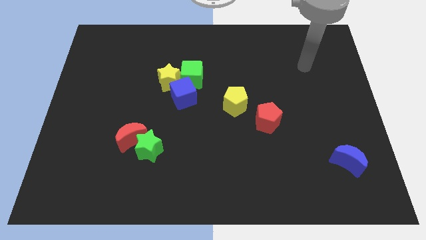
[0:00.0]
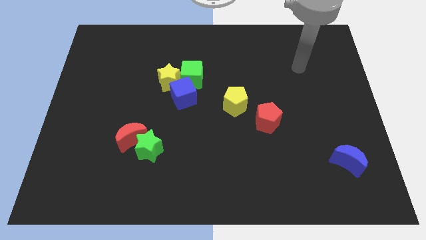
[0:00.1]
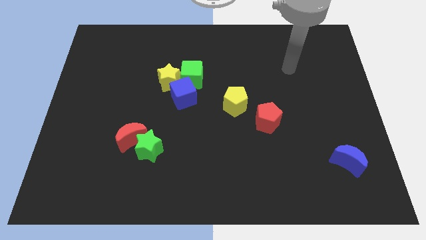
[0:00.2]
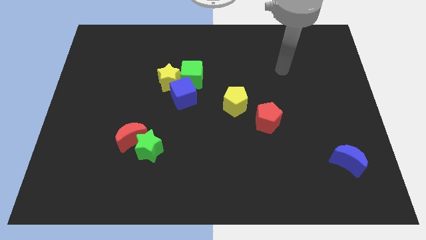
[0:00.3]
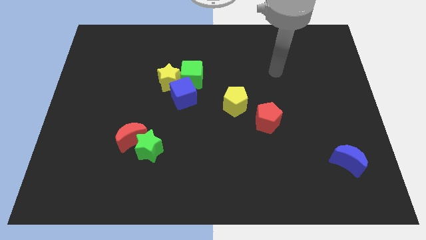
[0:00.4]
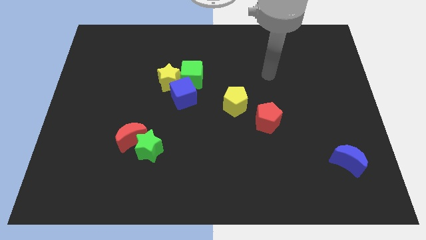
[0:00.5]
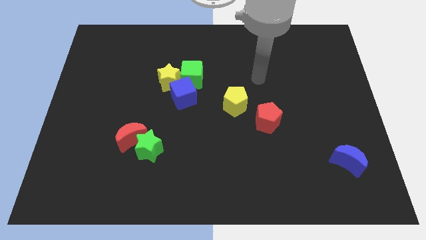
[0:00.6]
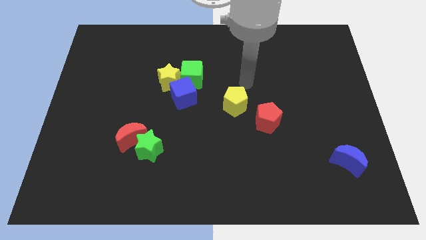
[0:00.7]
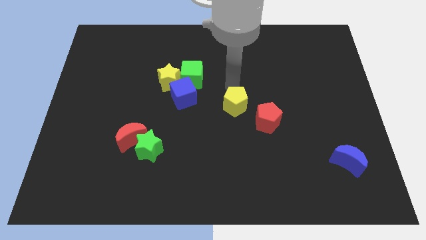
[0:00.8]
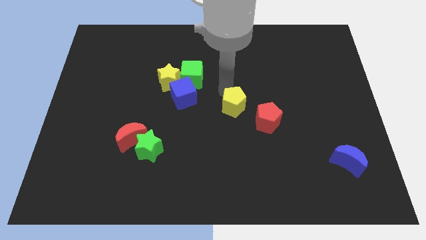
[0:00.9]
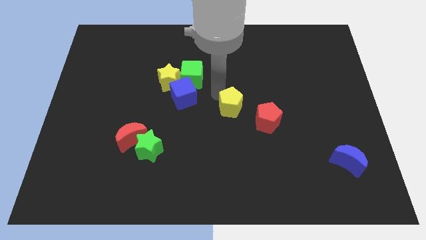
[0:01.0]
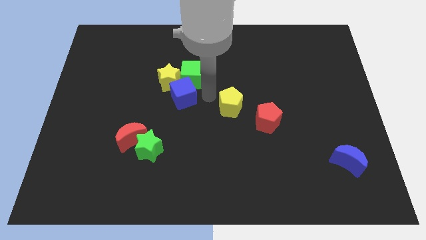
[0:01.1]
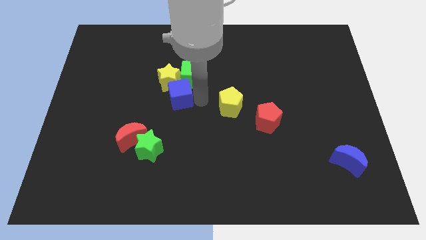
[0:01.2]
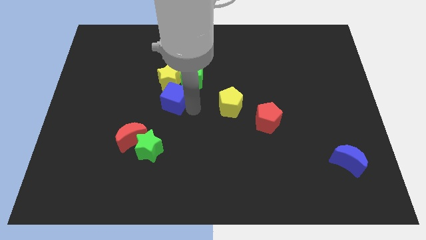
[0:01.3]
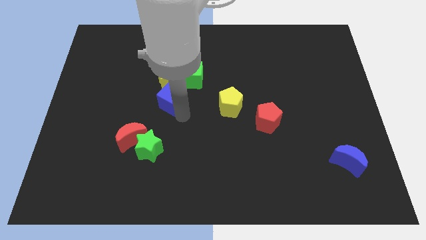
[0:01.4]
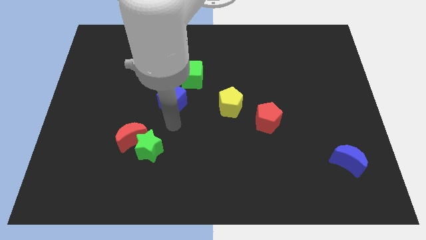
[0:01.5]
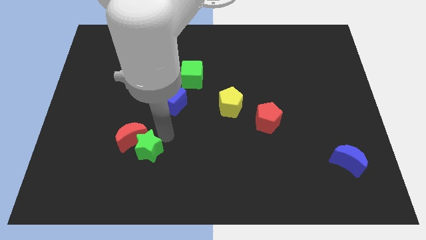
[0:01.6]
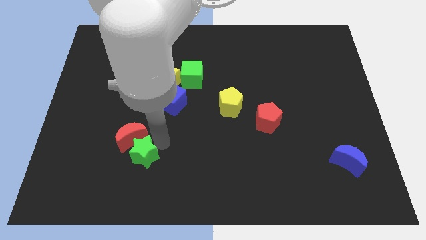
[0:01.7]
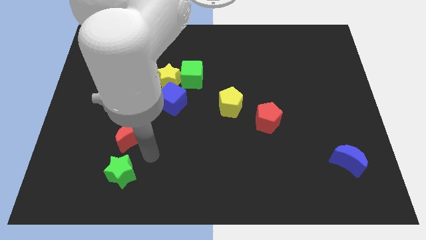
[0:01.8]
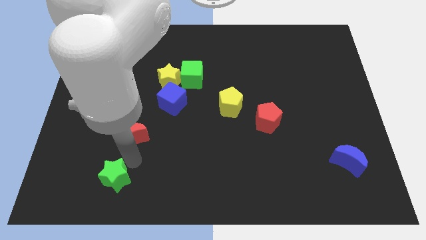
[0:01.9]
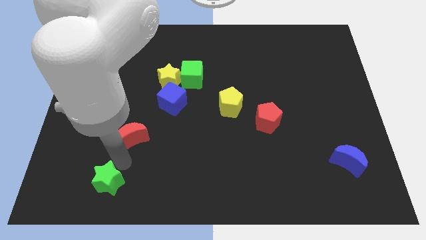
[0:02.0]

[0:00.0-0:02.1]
move the red moon away from the green star

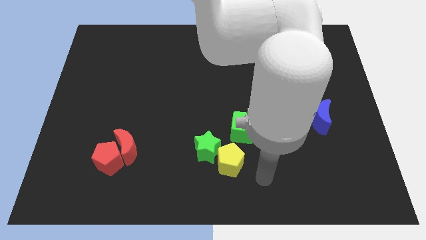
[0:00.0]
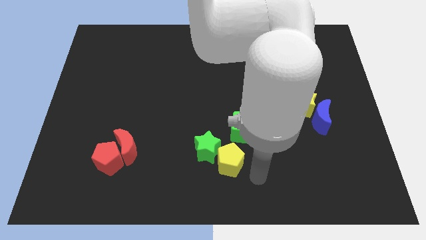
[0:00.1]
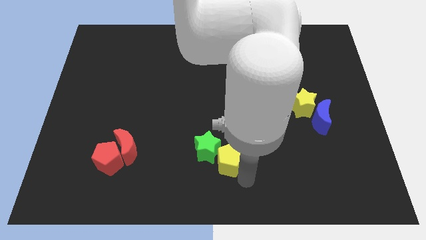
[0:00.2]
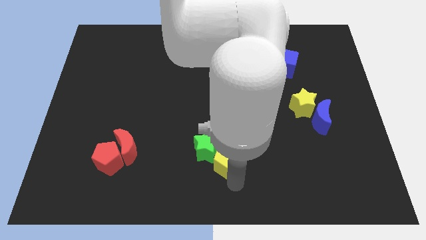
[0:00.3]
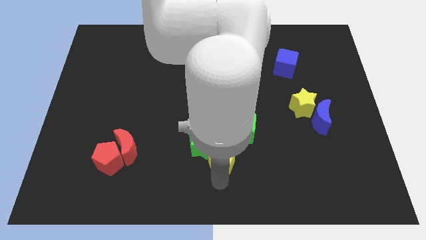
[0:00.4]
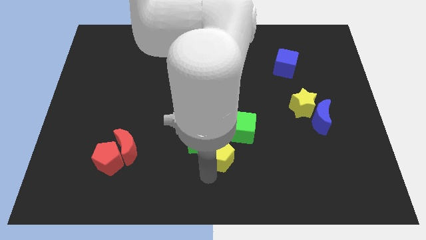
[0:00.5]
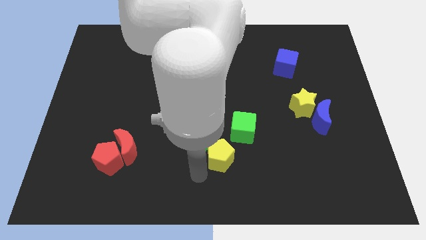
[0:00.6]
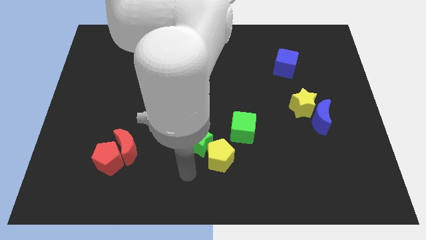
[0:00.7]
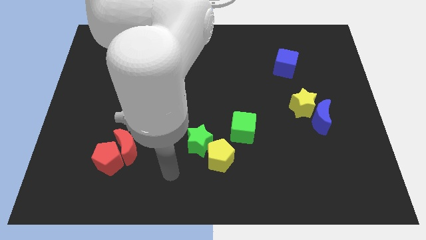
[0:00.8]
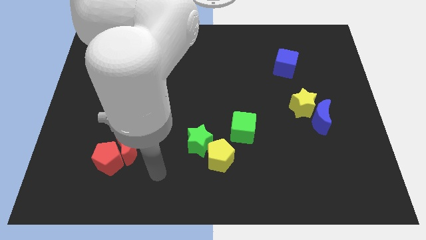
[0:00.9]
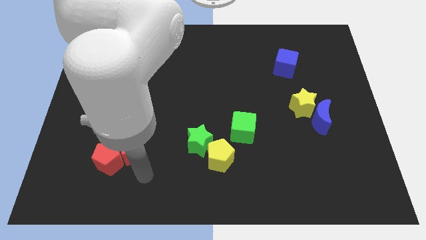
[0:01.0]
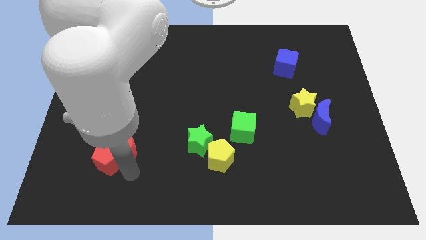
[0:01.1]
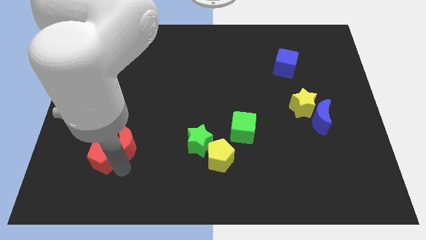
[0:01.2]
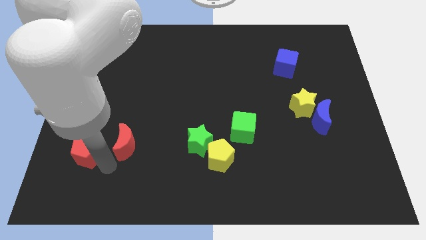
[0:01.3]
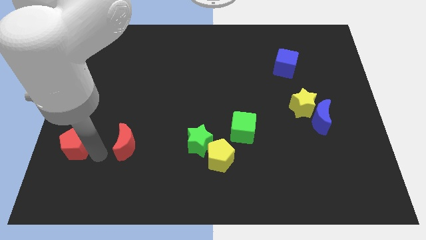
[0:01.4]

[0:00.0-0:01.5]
separate the red moon from the red pentagon

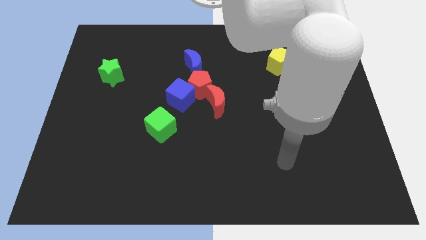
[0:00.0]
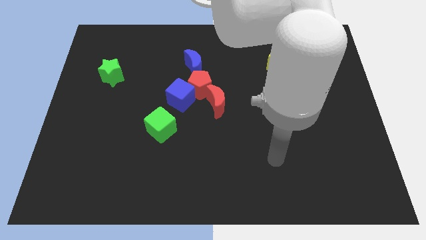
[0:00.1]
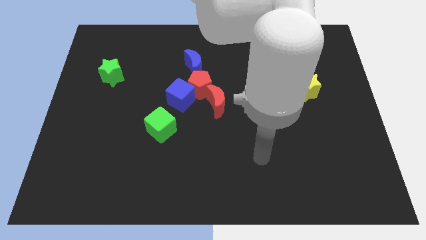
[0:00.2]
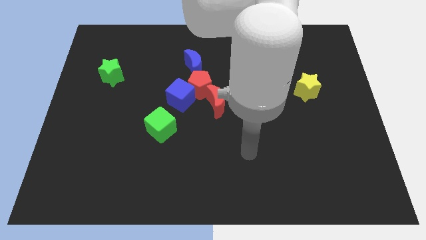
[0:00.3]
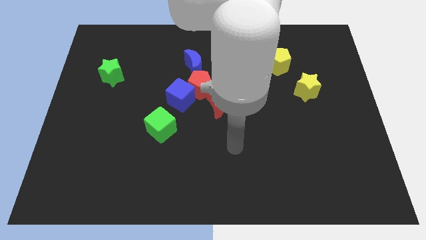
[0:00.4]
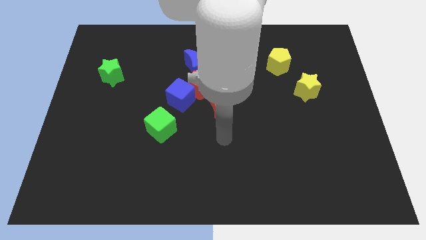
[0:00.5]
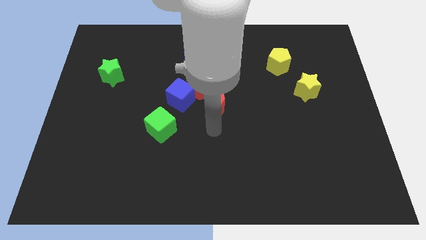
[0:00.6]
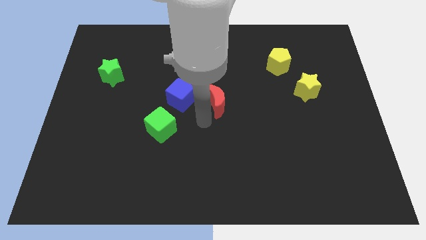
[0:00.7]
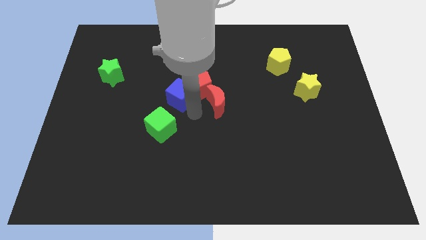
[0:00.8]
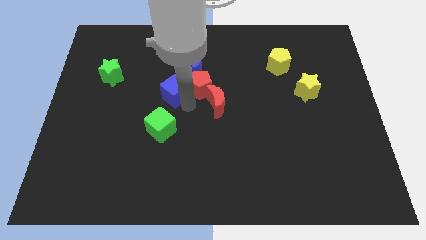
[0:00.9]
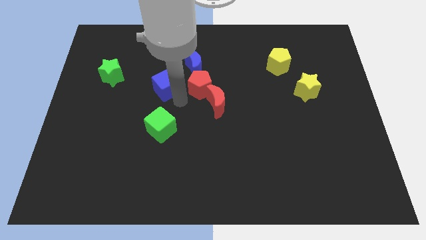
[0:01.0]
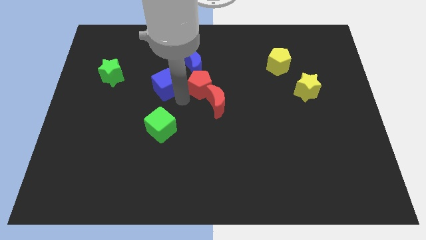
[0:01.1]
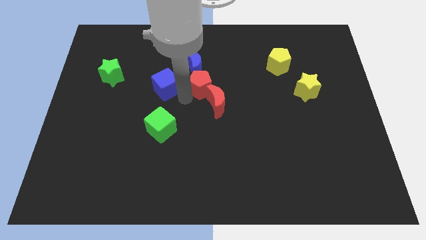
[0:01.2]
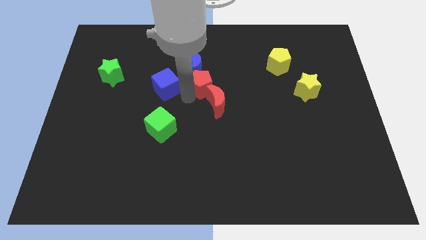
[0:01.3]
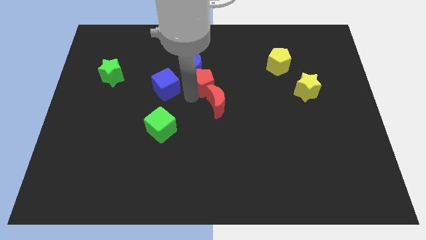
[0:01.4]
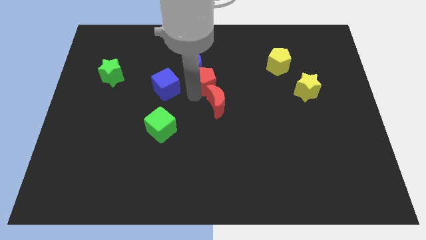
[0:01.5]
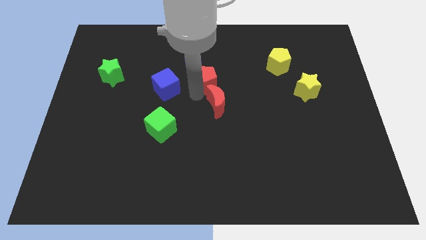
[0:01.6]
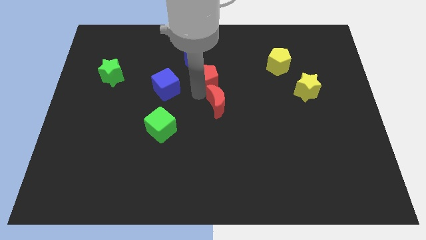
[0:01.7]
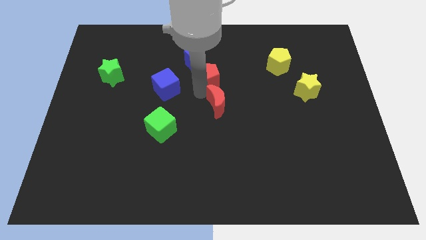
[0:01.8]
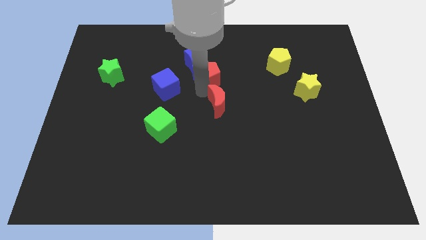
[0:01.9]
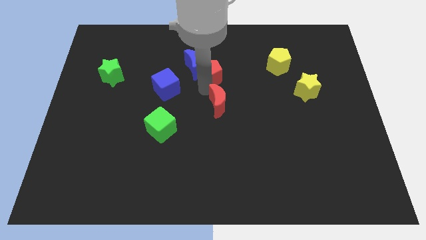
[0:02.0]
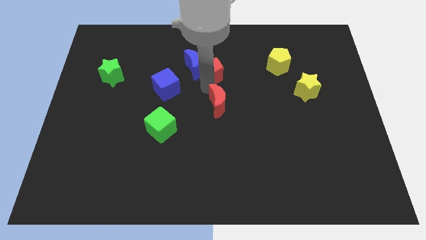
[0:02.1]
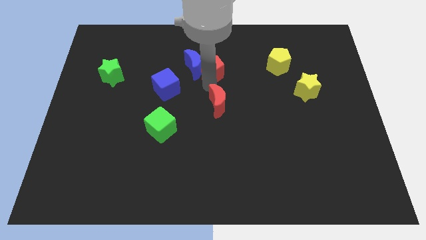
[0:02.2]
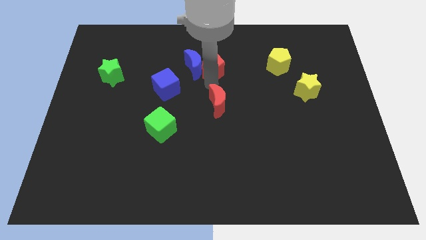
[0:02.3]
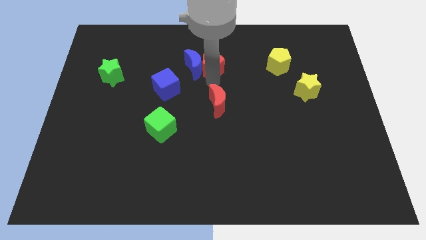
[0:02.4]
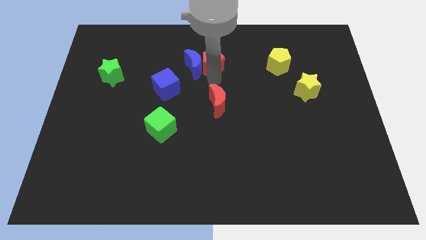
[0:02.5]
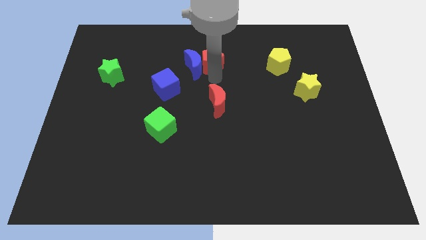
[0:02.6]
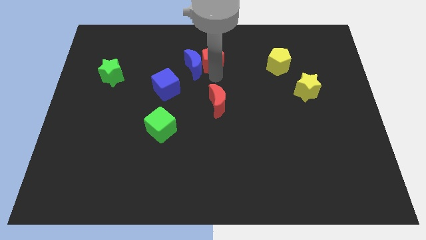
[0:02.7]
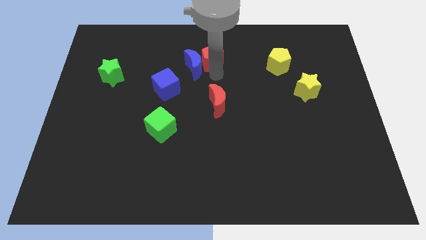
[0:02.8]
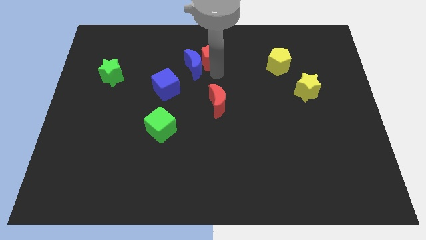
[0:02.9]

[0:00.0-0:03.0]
pull the red pentagon apart from the clump

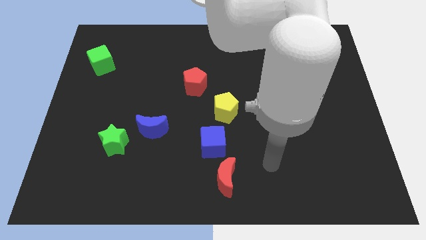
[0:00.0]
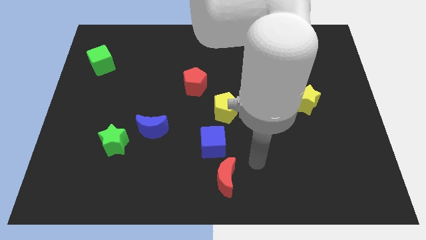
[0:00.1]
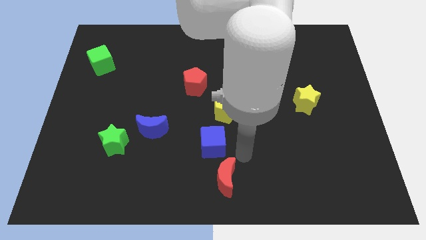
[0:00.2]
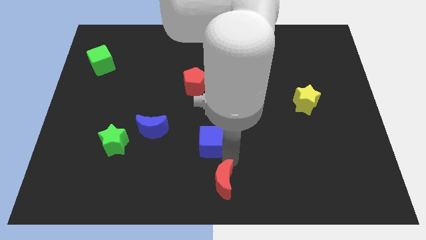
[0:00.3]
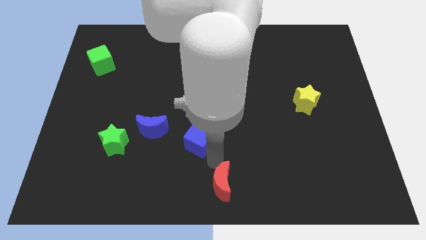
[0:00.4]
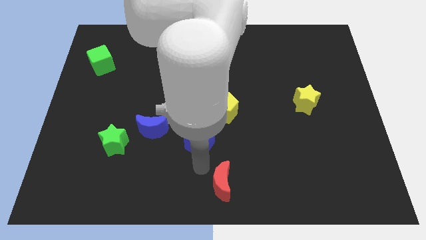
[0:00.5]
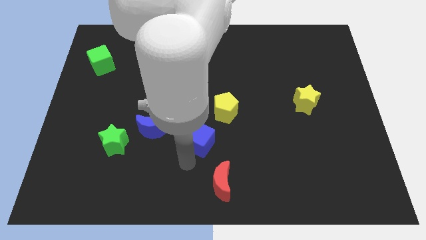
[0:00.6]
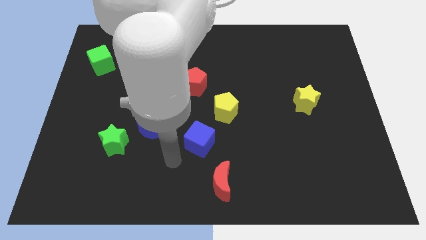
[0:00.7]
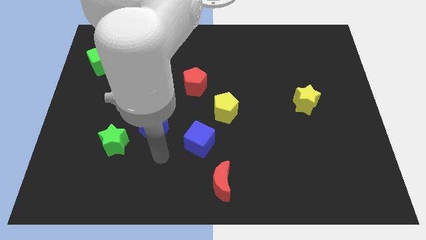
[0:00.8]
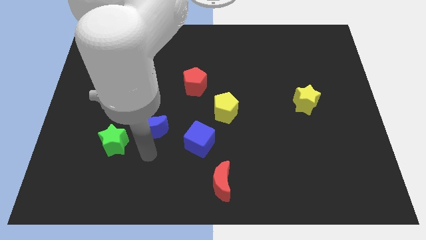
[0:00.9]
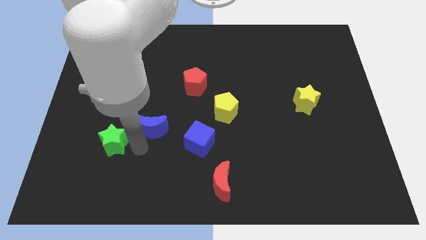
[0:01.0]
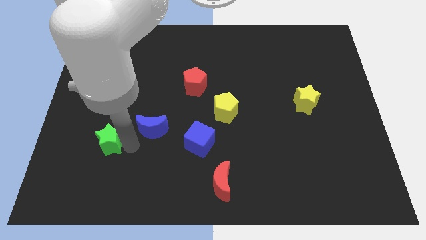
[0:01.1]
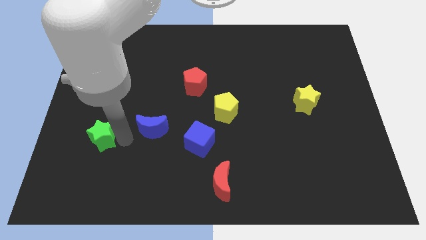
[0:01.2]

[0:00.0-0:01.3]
separate the blue moon from the green star

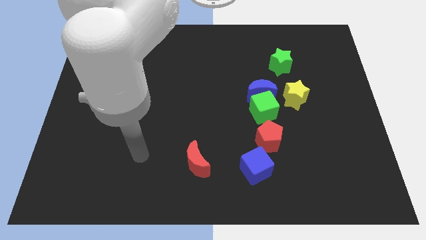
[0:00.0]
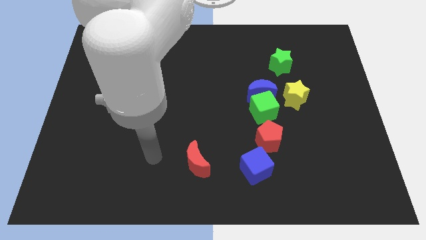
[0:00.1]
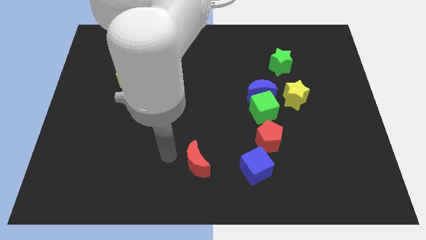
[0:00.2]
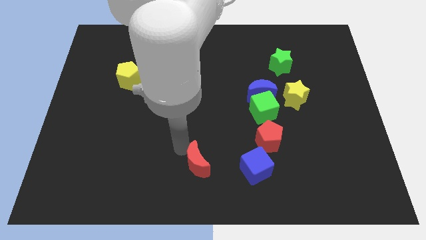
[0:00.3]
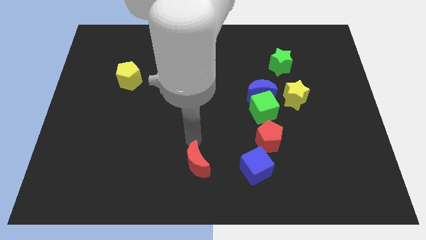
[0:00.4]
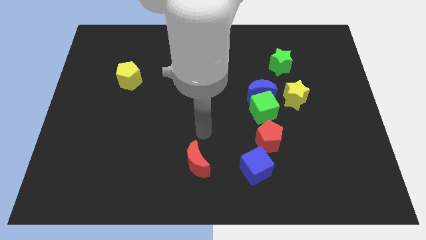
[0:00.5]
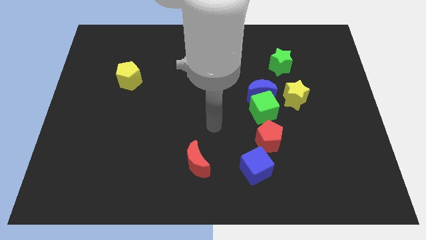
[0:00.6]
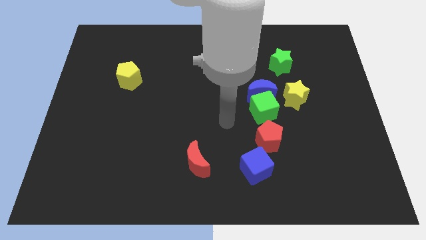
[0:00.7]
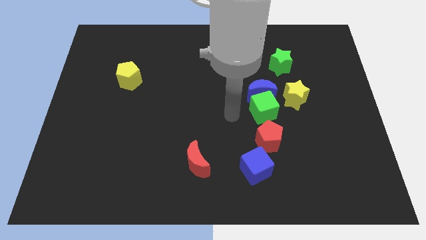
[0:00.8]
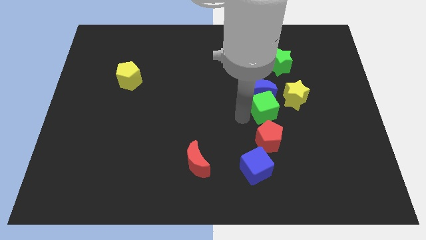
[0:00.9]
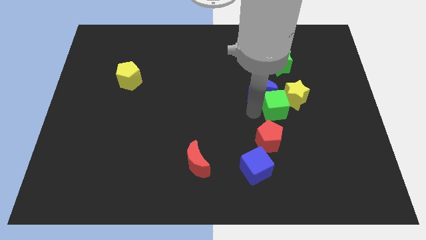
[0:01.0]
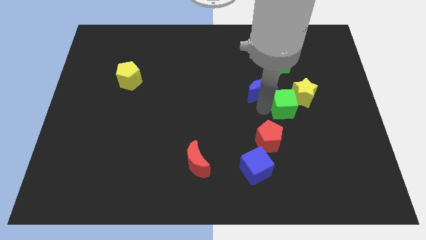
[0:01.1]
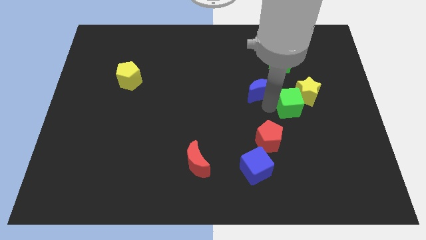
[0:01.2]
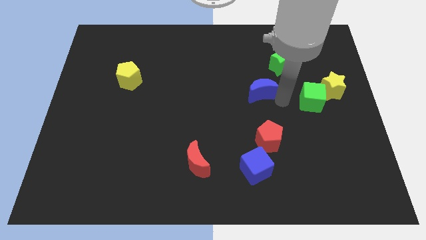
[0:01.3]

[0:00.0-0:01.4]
separate the blue moon from the green cube and yellow star

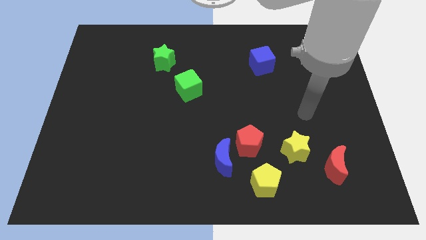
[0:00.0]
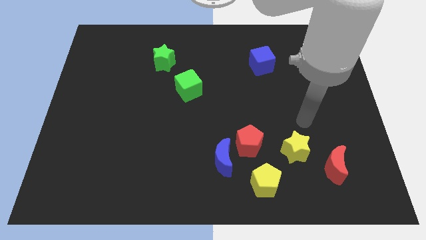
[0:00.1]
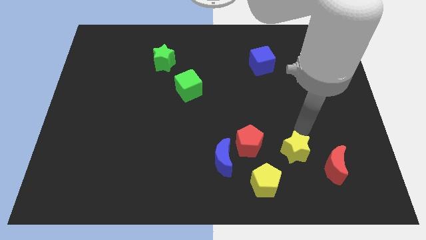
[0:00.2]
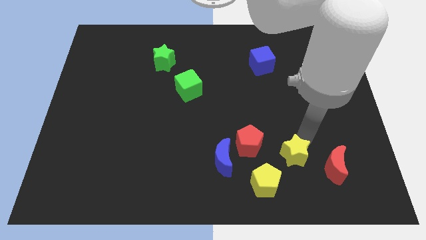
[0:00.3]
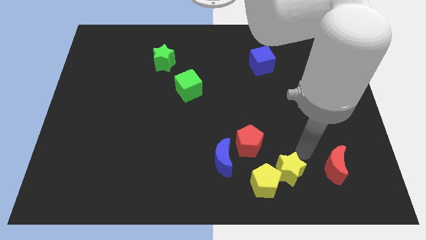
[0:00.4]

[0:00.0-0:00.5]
separate the red moon from the yellow star
